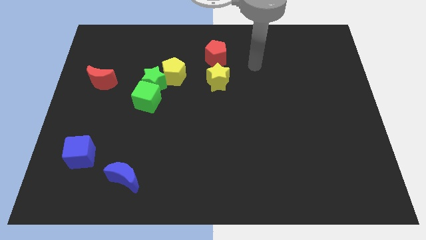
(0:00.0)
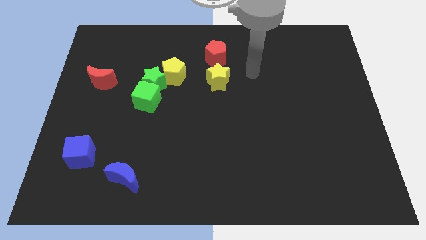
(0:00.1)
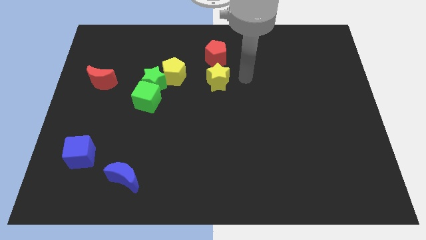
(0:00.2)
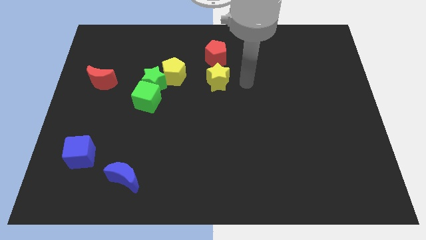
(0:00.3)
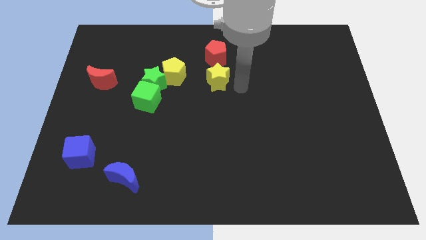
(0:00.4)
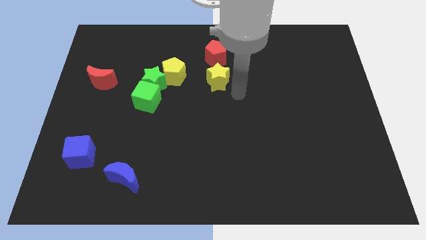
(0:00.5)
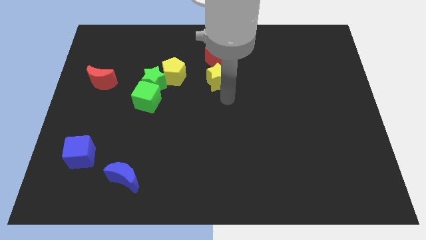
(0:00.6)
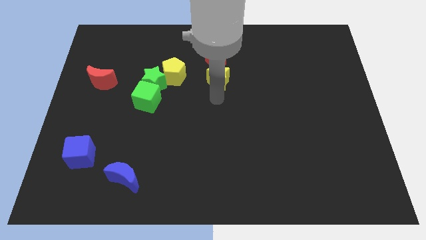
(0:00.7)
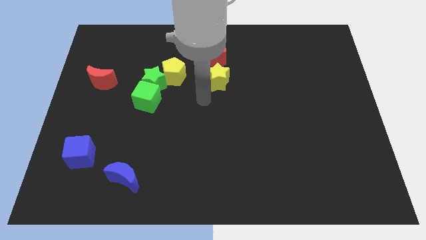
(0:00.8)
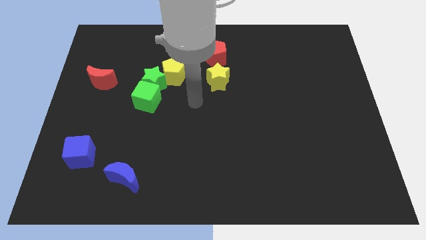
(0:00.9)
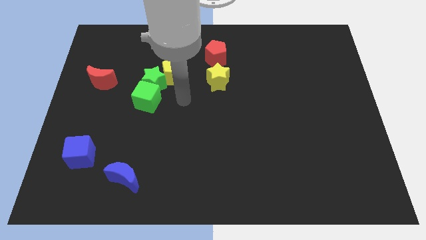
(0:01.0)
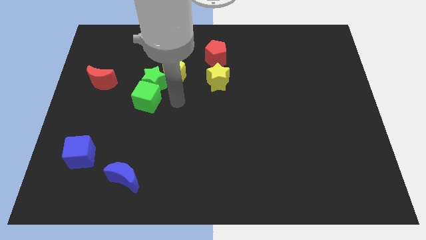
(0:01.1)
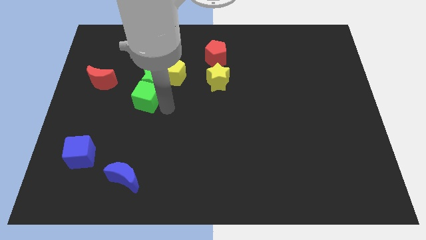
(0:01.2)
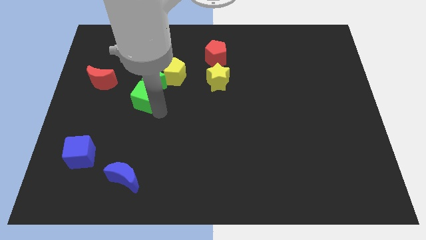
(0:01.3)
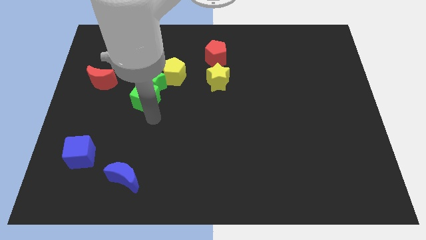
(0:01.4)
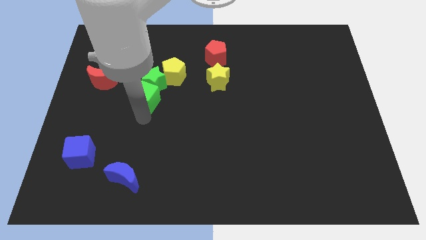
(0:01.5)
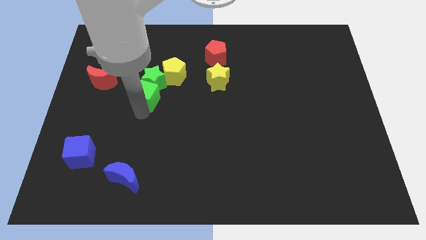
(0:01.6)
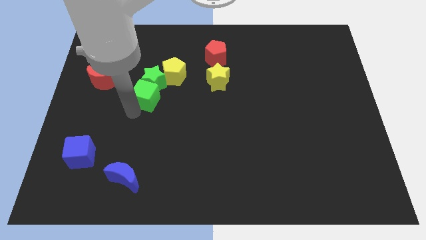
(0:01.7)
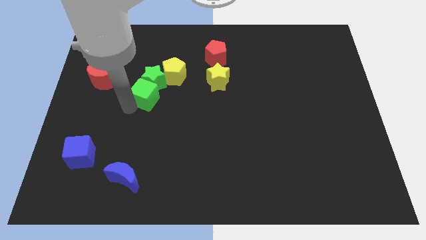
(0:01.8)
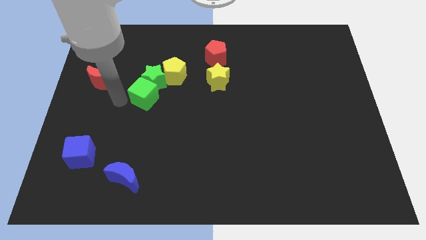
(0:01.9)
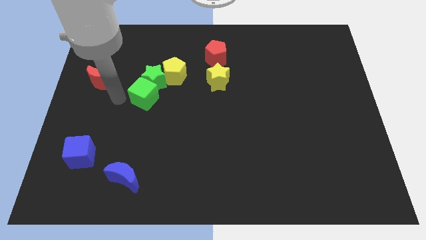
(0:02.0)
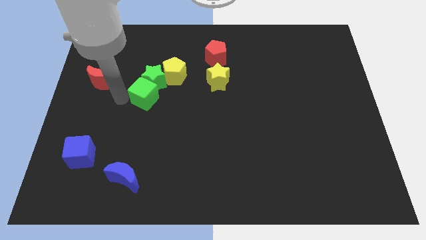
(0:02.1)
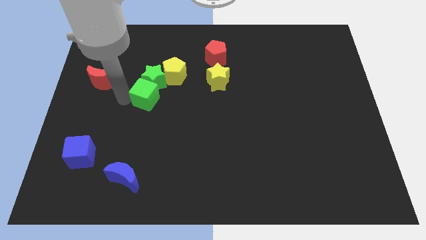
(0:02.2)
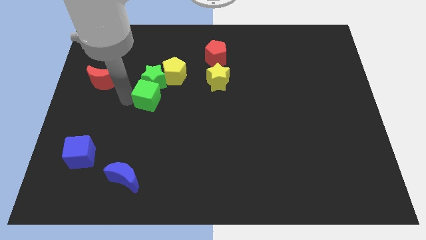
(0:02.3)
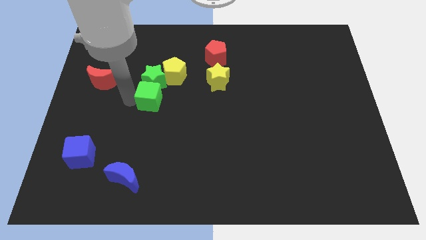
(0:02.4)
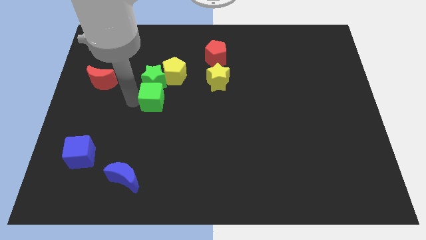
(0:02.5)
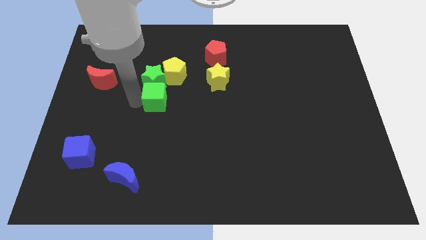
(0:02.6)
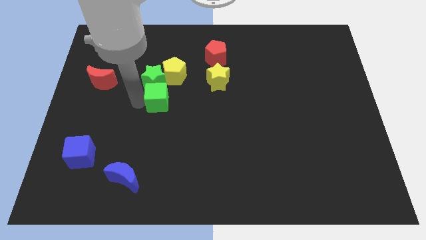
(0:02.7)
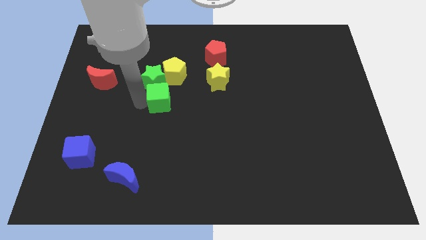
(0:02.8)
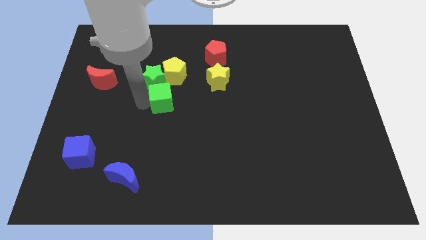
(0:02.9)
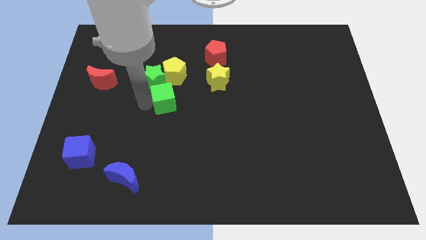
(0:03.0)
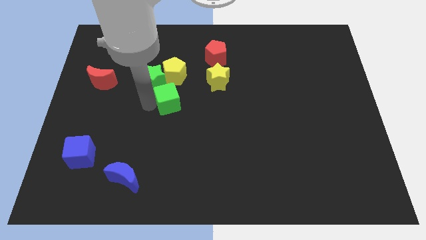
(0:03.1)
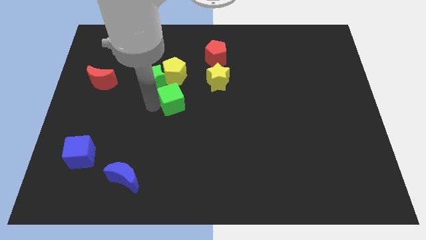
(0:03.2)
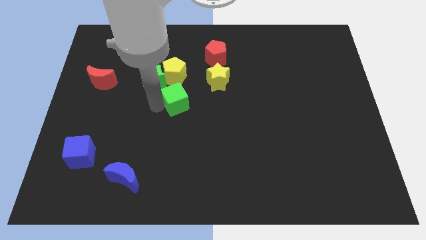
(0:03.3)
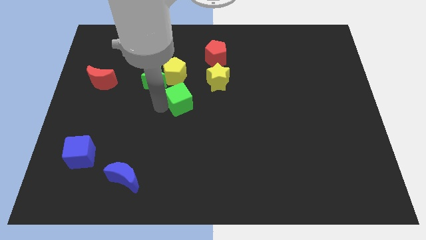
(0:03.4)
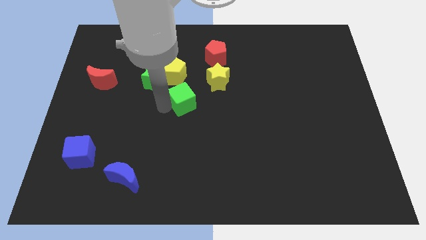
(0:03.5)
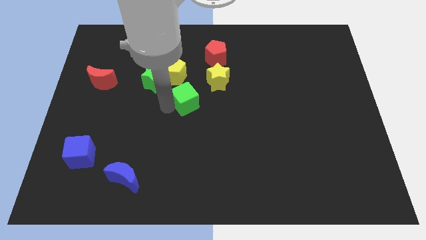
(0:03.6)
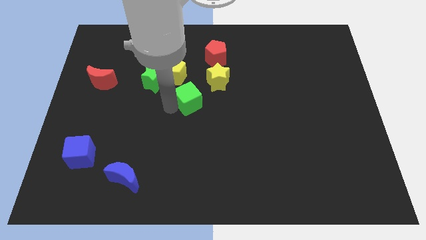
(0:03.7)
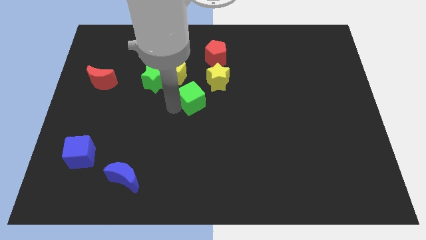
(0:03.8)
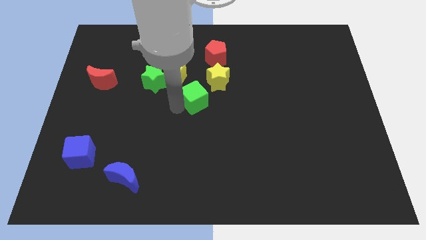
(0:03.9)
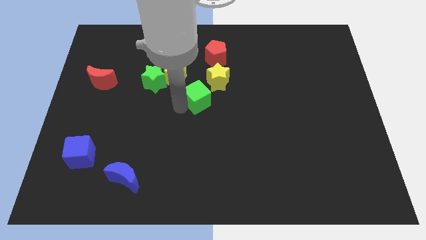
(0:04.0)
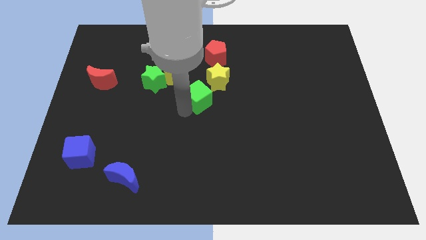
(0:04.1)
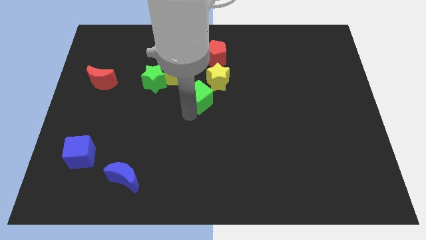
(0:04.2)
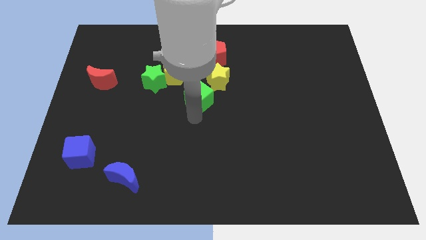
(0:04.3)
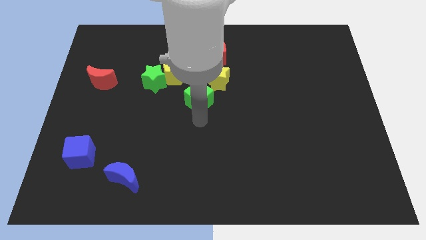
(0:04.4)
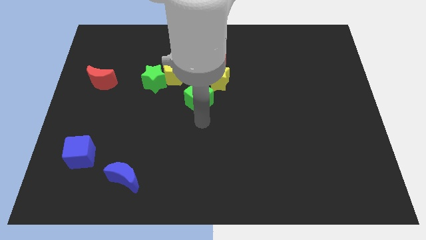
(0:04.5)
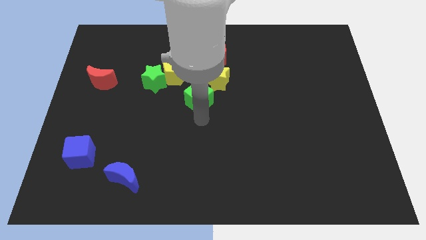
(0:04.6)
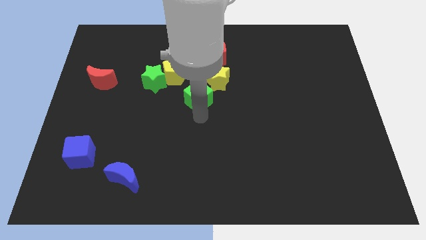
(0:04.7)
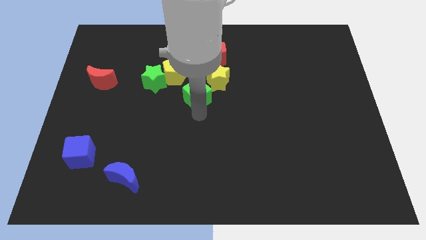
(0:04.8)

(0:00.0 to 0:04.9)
put the green cube right of the green star

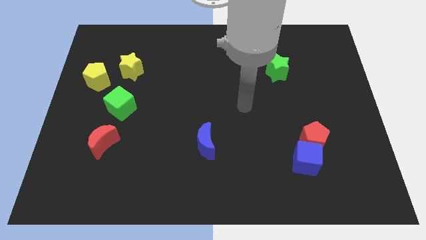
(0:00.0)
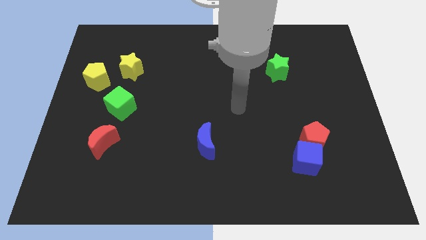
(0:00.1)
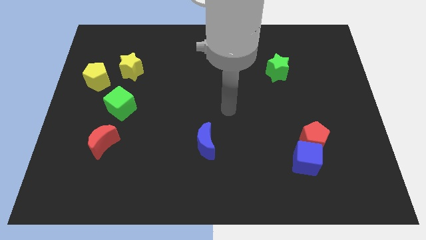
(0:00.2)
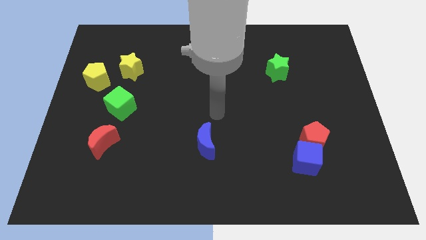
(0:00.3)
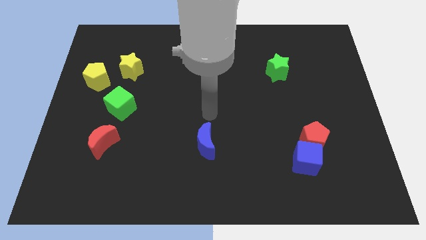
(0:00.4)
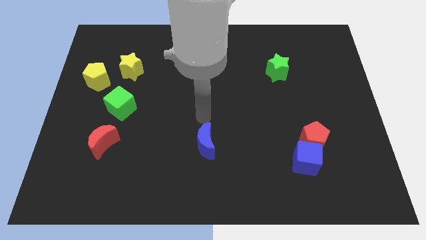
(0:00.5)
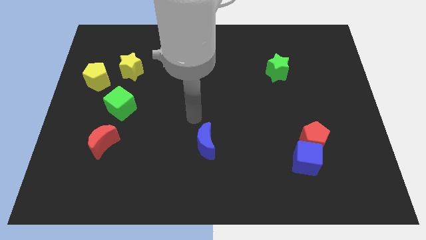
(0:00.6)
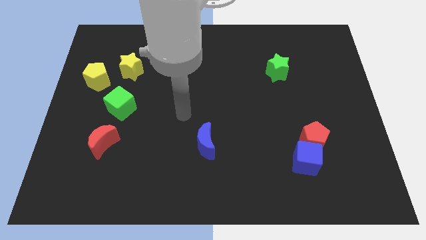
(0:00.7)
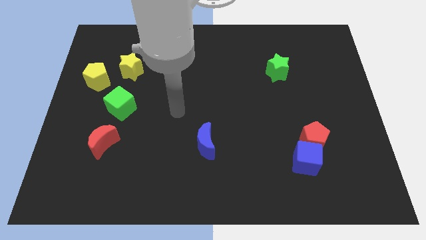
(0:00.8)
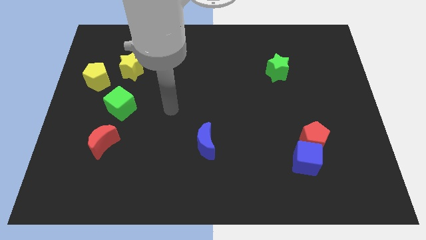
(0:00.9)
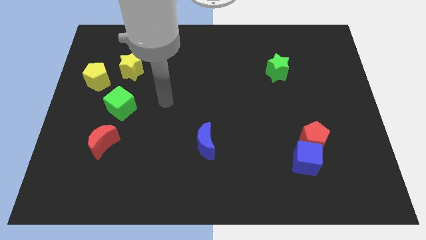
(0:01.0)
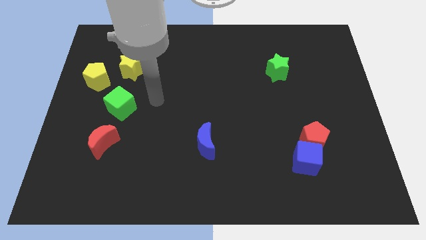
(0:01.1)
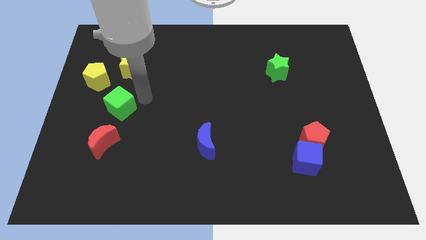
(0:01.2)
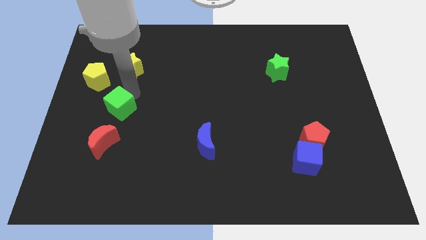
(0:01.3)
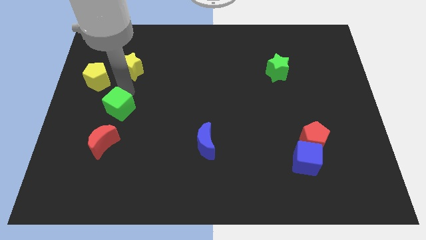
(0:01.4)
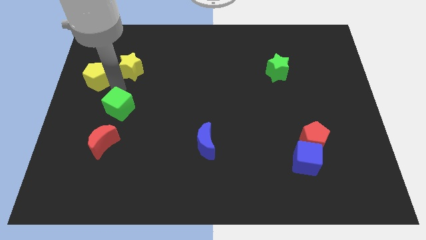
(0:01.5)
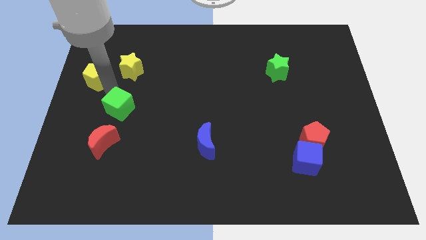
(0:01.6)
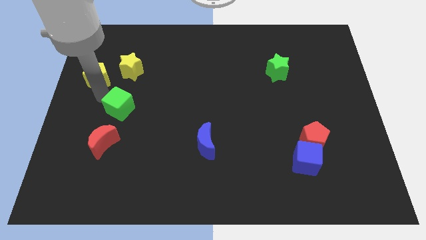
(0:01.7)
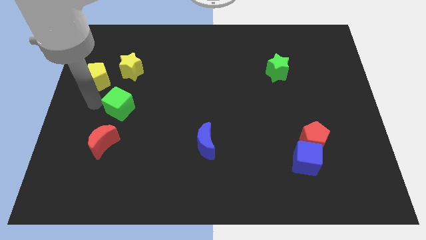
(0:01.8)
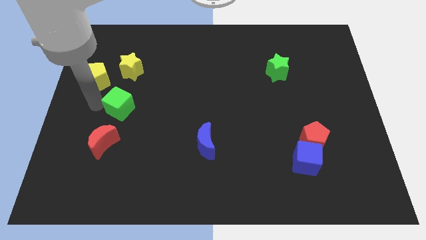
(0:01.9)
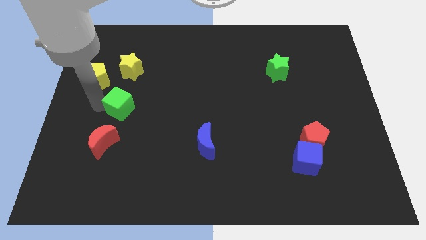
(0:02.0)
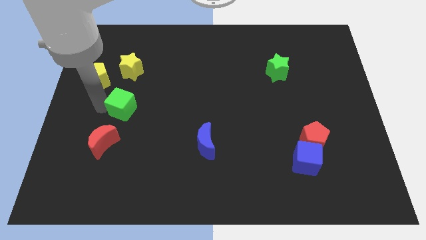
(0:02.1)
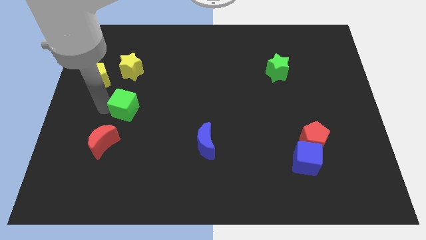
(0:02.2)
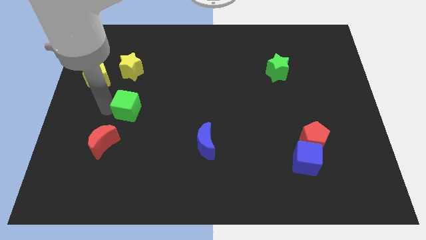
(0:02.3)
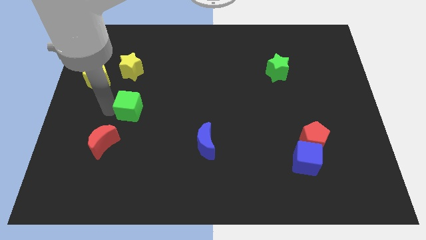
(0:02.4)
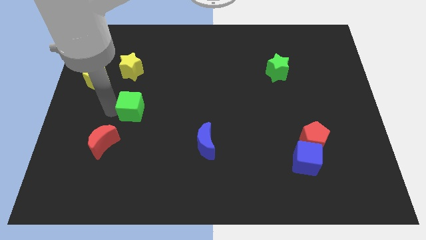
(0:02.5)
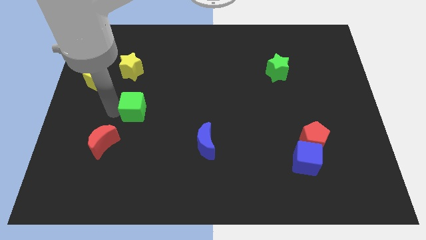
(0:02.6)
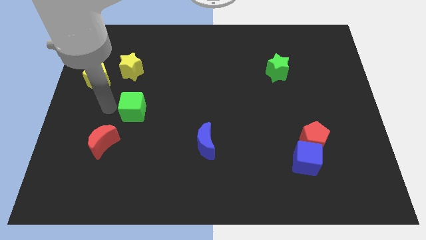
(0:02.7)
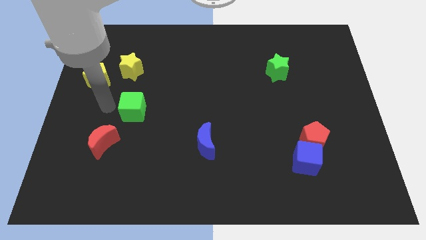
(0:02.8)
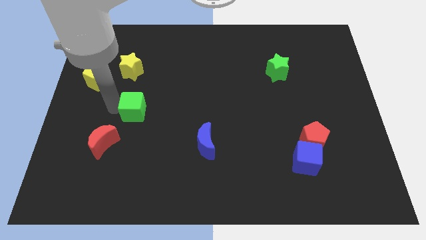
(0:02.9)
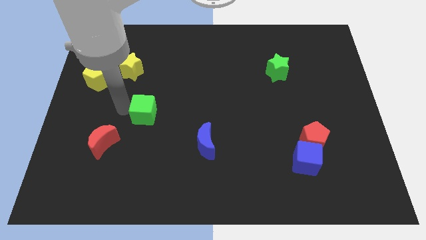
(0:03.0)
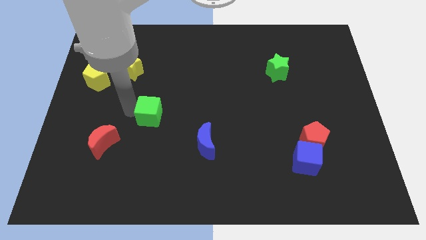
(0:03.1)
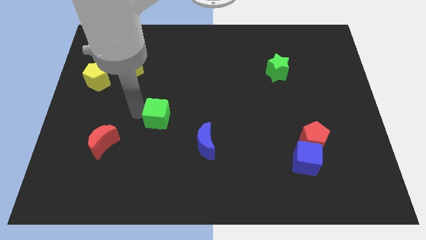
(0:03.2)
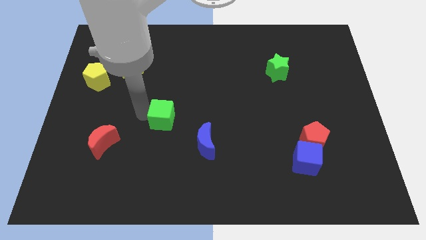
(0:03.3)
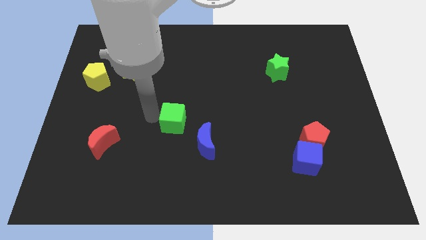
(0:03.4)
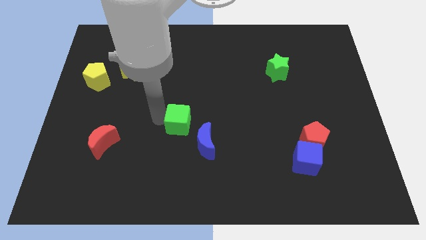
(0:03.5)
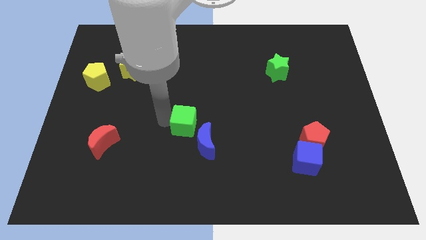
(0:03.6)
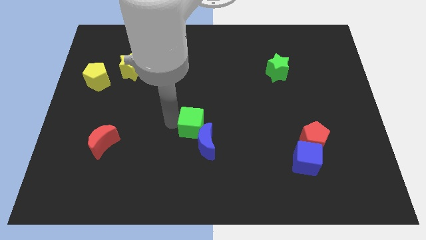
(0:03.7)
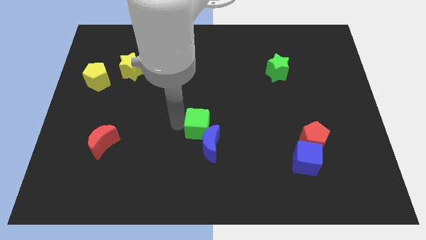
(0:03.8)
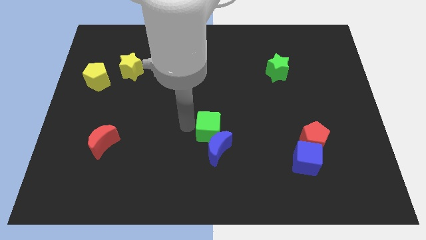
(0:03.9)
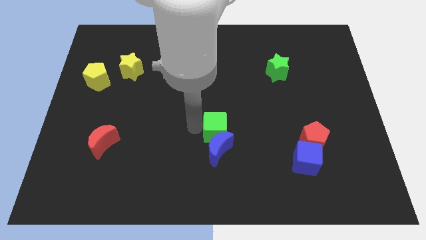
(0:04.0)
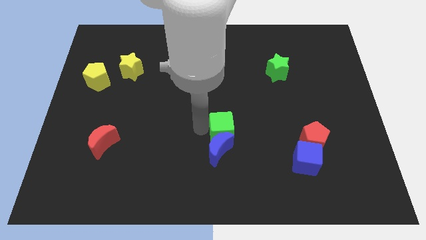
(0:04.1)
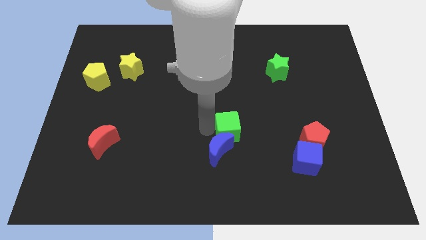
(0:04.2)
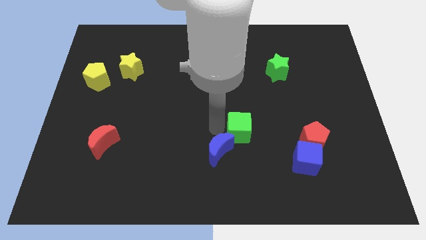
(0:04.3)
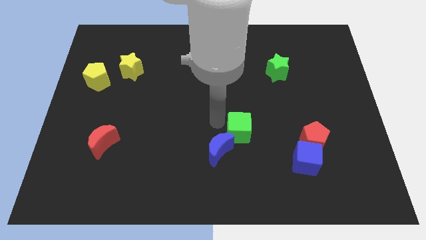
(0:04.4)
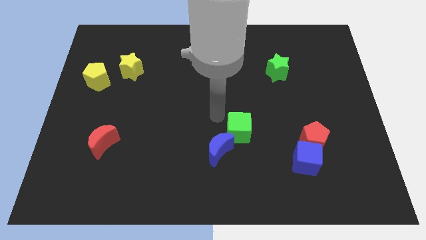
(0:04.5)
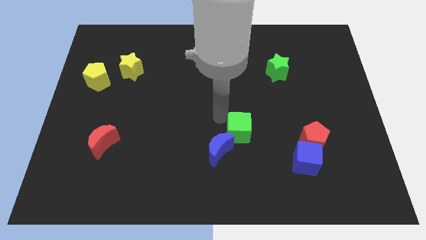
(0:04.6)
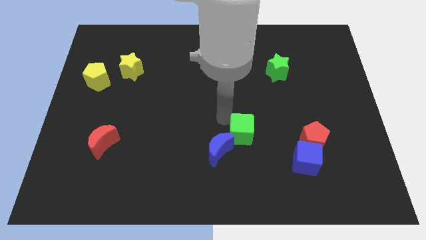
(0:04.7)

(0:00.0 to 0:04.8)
put the green cube to the right side of the blue moon
